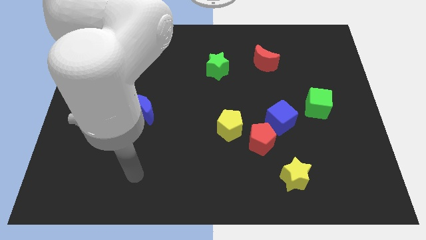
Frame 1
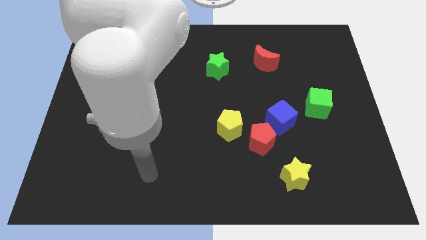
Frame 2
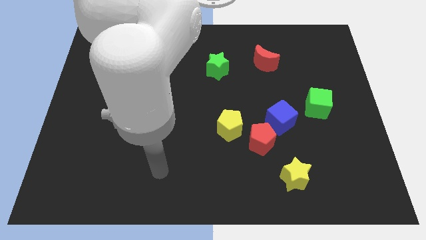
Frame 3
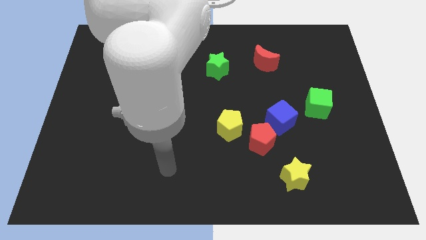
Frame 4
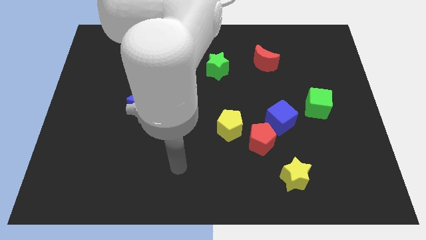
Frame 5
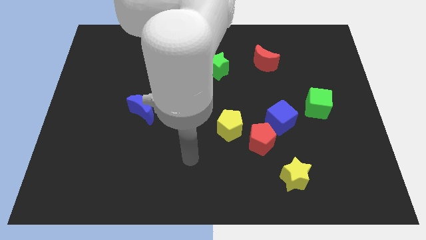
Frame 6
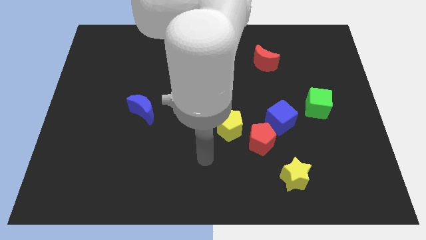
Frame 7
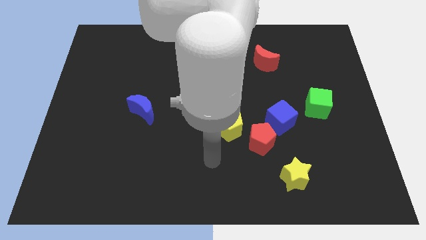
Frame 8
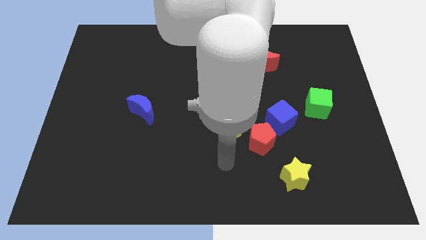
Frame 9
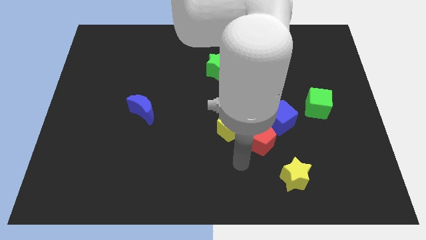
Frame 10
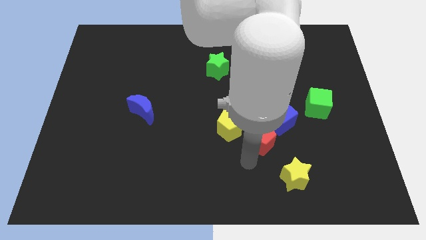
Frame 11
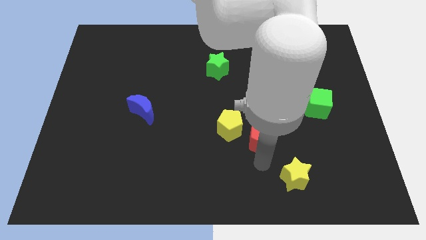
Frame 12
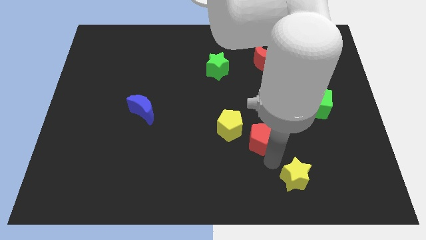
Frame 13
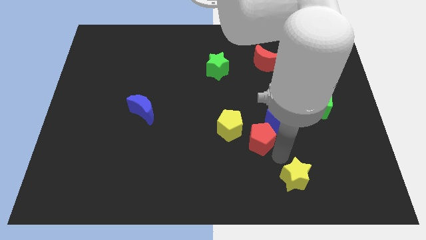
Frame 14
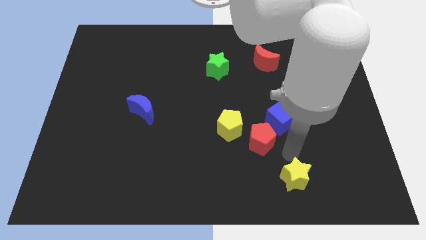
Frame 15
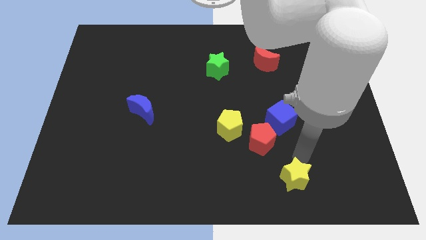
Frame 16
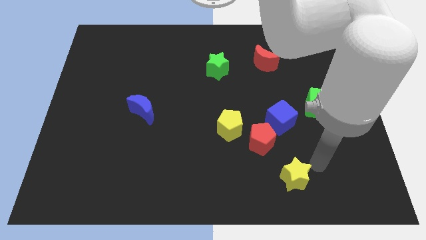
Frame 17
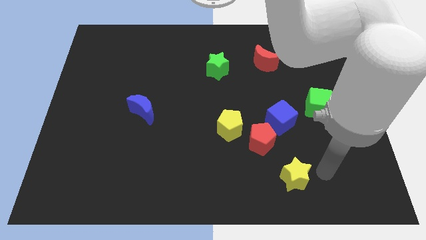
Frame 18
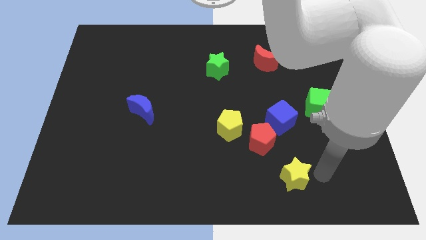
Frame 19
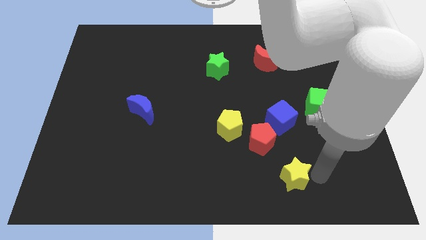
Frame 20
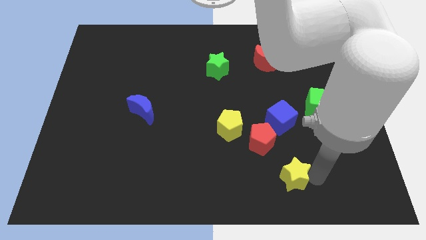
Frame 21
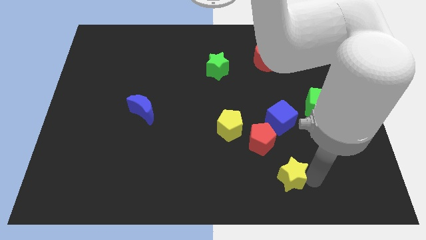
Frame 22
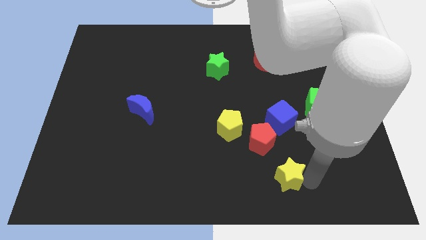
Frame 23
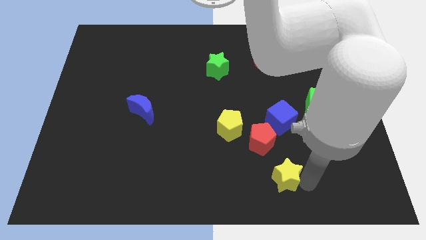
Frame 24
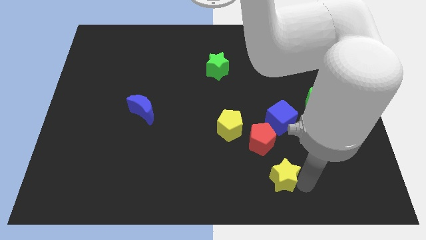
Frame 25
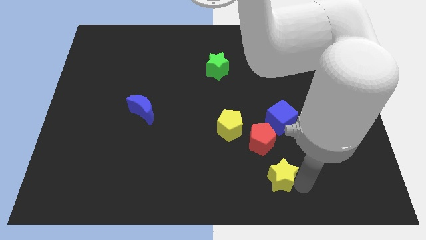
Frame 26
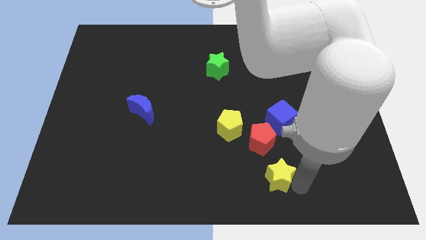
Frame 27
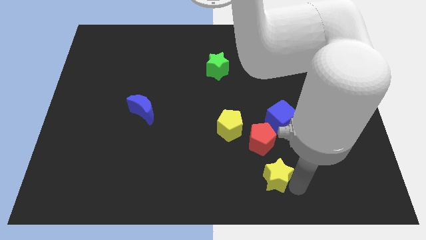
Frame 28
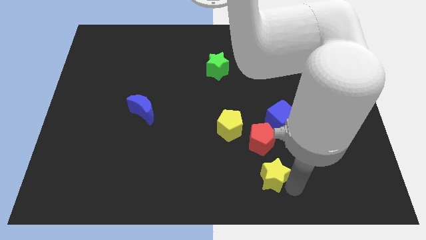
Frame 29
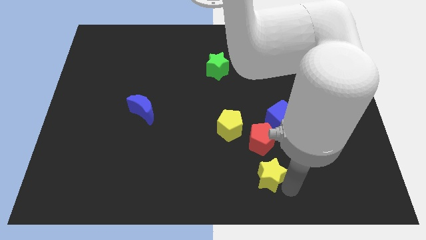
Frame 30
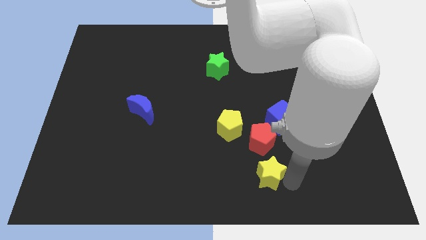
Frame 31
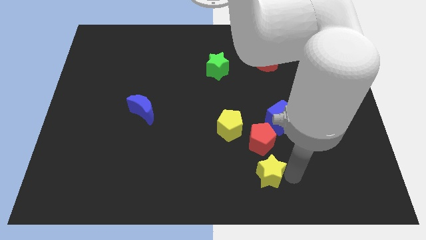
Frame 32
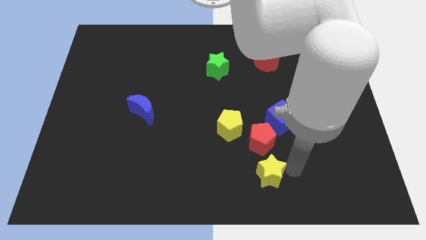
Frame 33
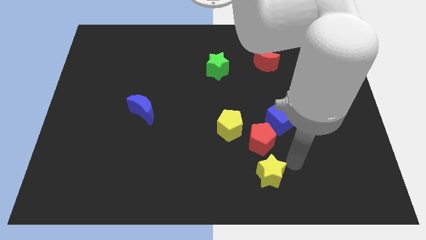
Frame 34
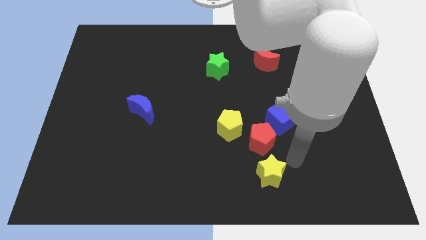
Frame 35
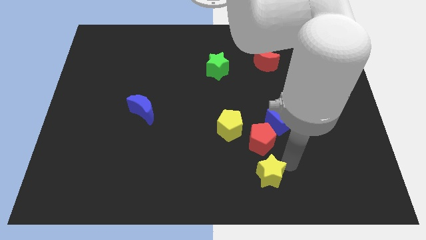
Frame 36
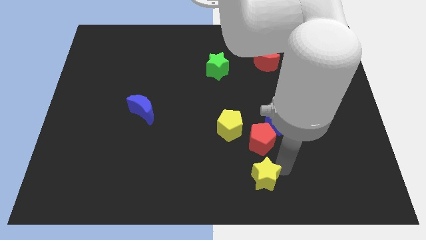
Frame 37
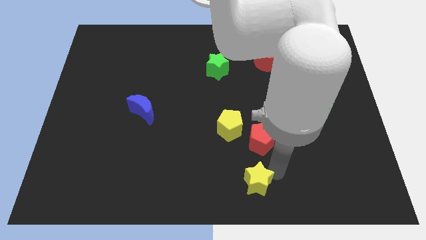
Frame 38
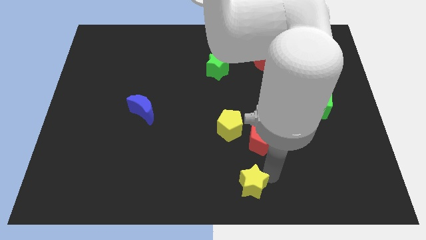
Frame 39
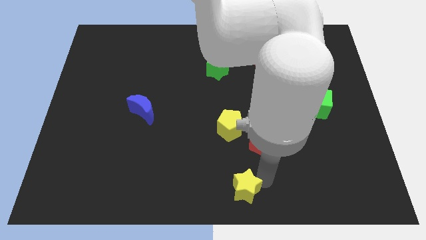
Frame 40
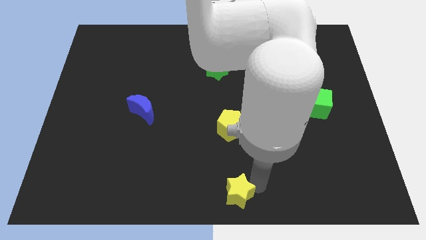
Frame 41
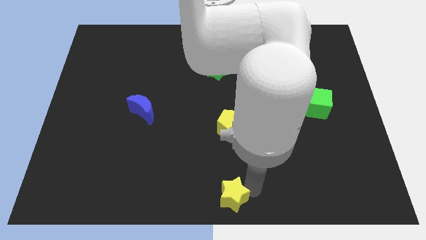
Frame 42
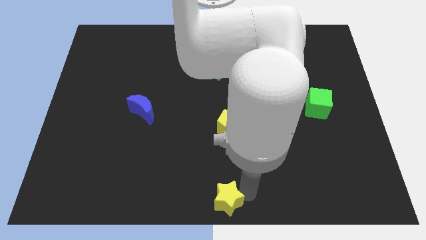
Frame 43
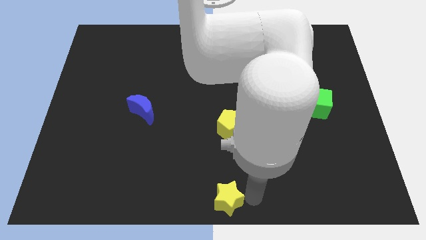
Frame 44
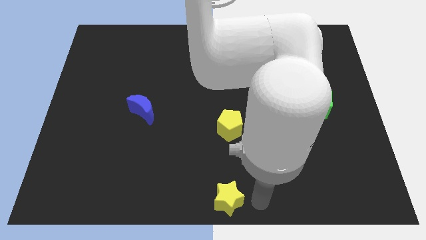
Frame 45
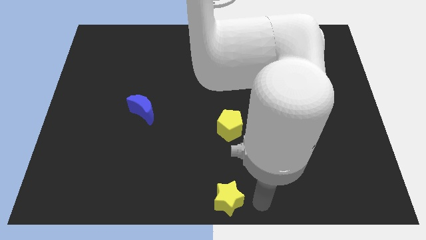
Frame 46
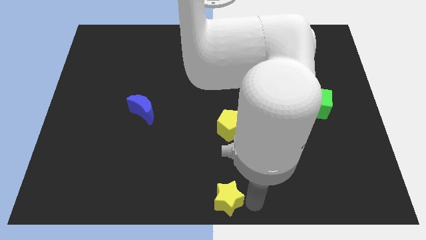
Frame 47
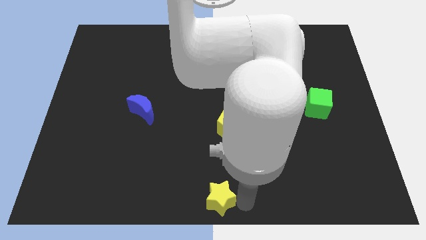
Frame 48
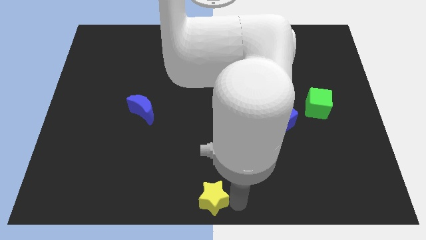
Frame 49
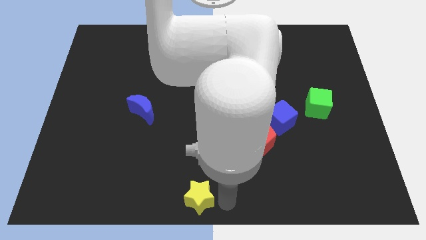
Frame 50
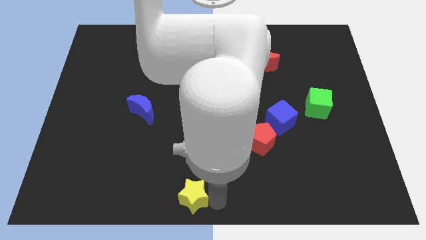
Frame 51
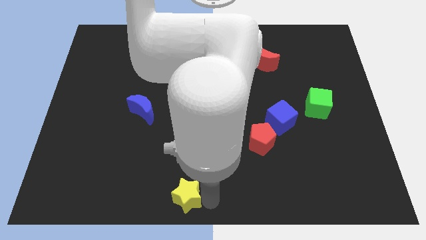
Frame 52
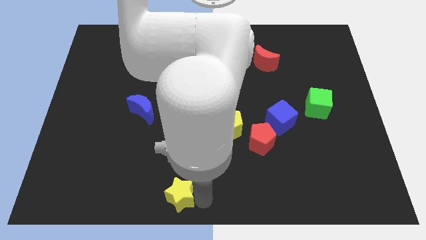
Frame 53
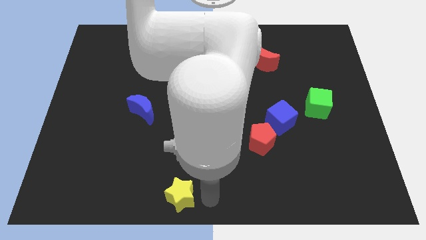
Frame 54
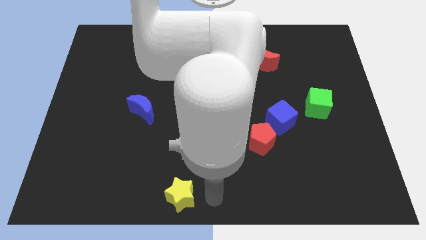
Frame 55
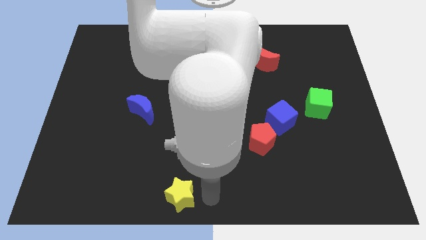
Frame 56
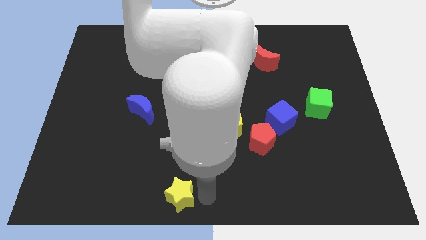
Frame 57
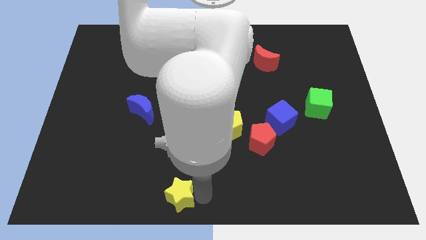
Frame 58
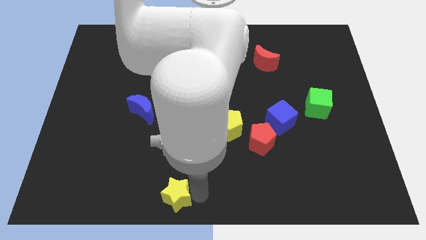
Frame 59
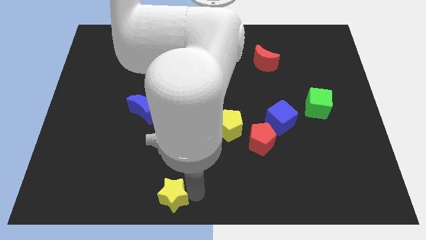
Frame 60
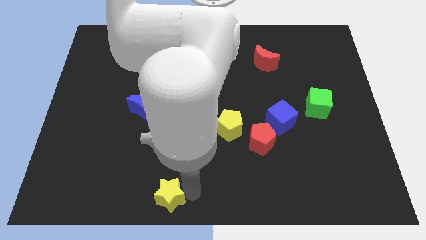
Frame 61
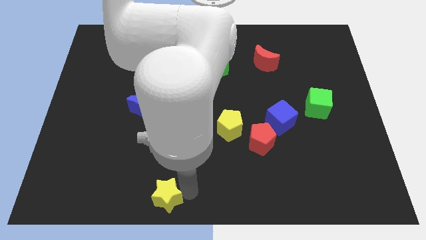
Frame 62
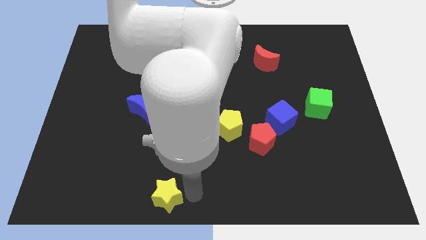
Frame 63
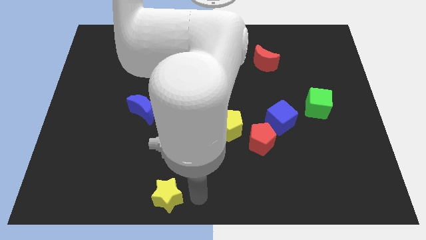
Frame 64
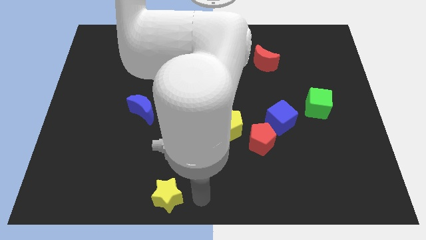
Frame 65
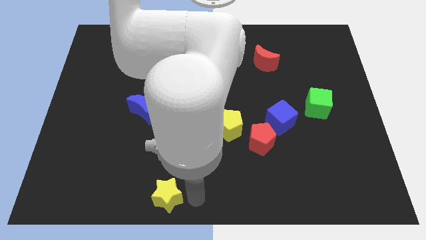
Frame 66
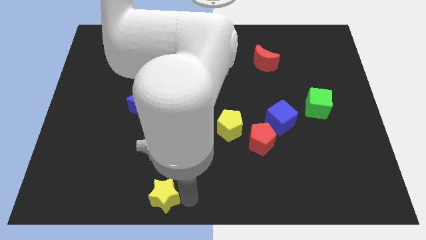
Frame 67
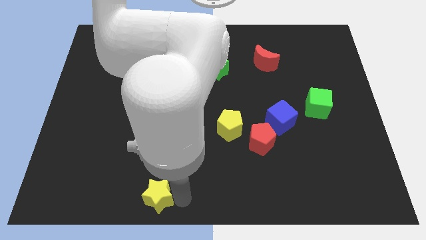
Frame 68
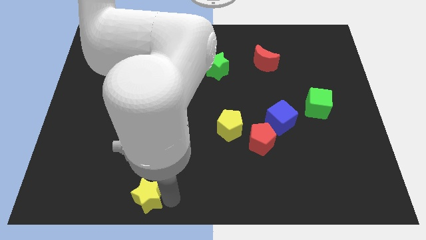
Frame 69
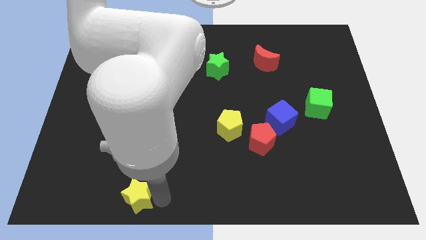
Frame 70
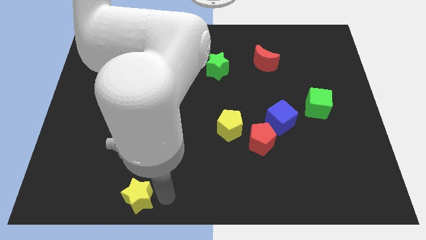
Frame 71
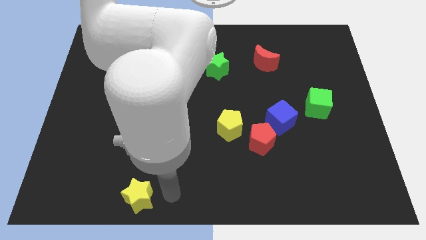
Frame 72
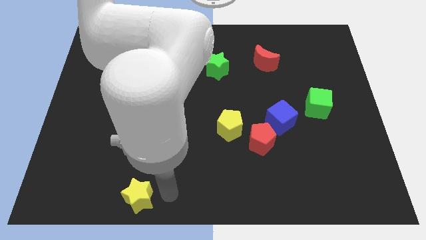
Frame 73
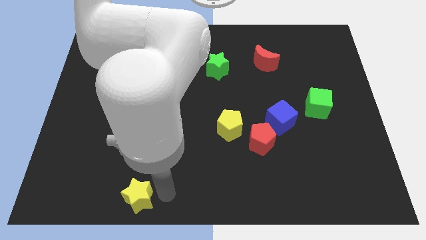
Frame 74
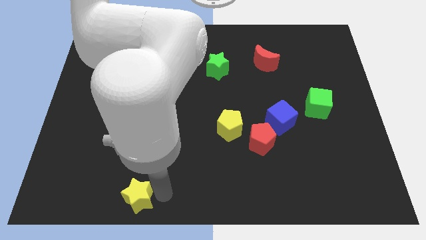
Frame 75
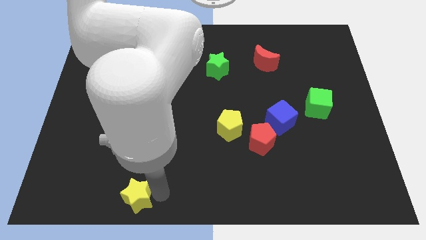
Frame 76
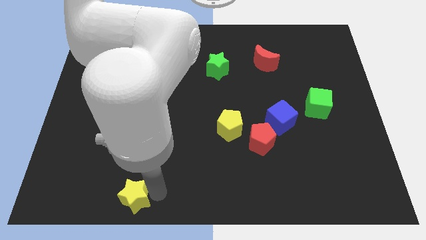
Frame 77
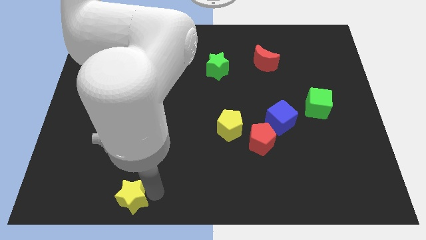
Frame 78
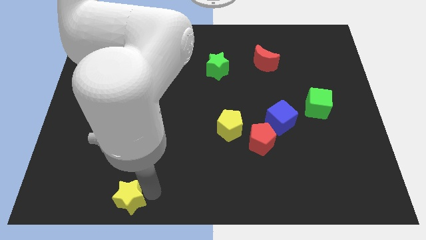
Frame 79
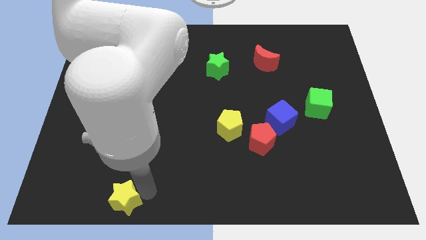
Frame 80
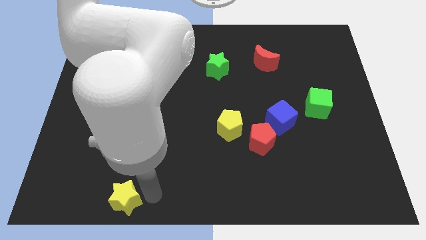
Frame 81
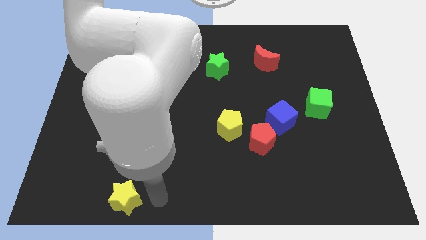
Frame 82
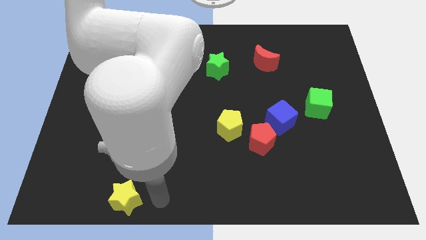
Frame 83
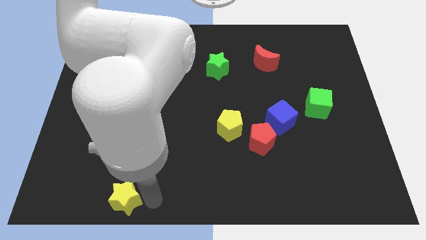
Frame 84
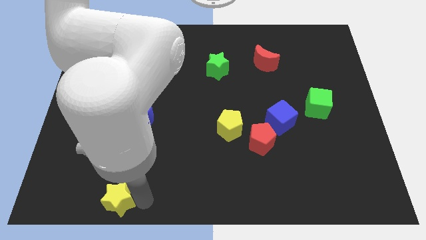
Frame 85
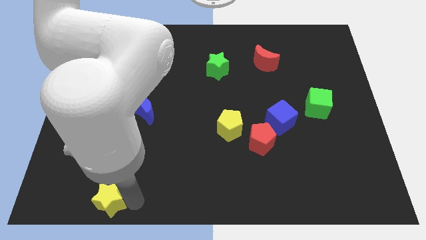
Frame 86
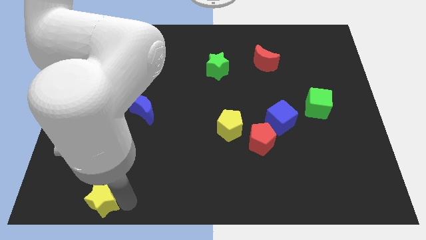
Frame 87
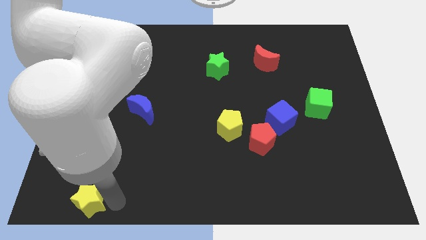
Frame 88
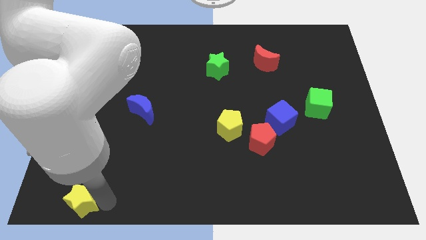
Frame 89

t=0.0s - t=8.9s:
push the yellow star to the bottom left of the board
